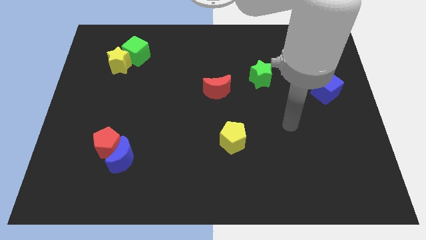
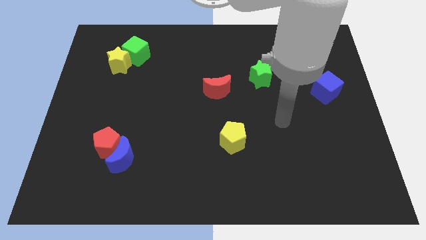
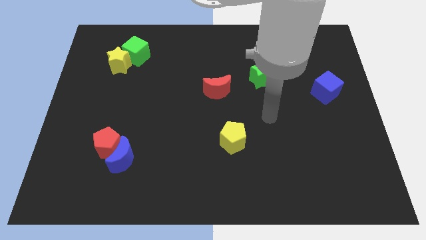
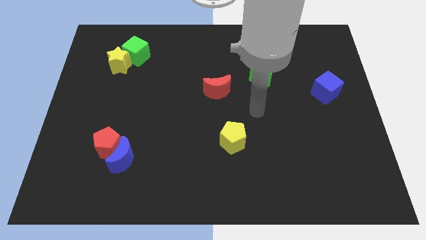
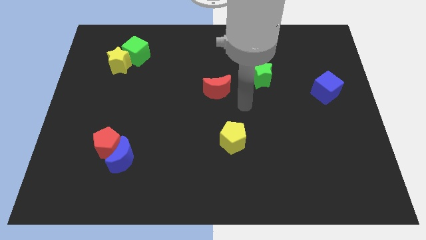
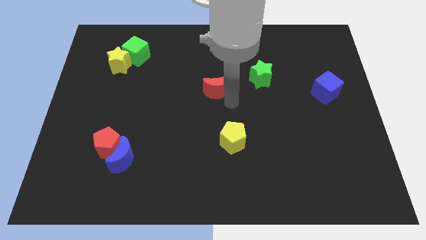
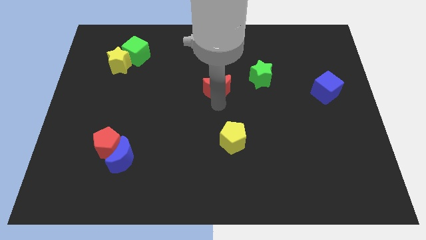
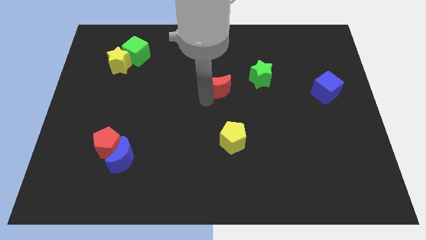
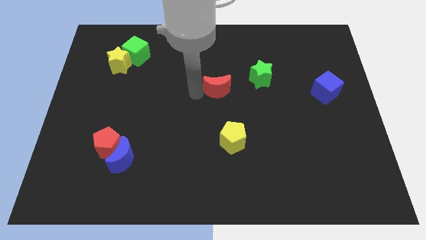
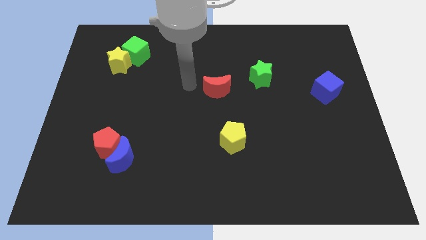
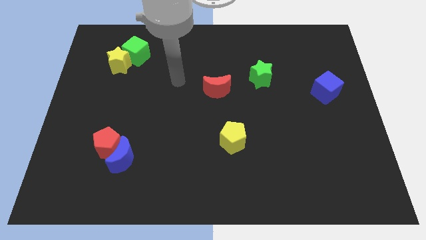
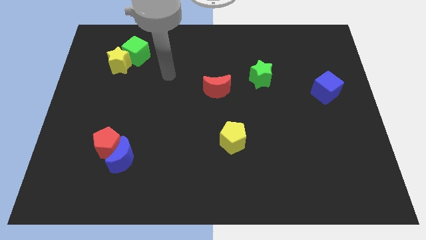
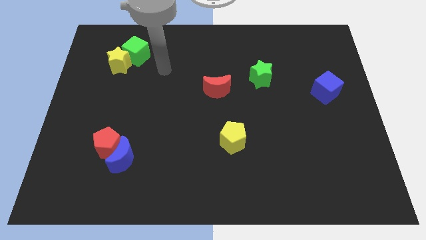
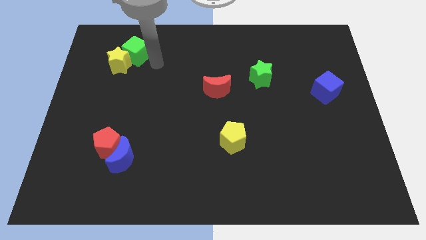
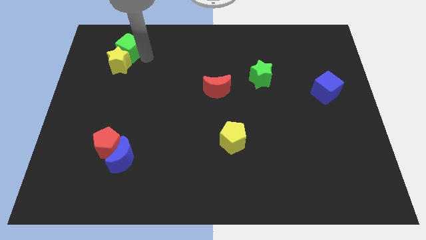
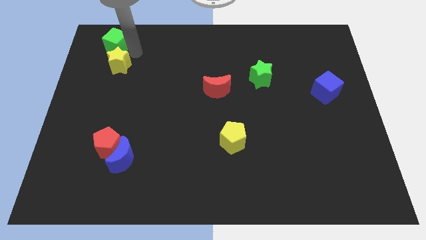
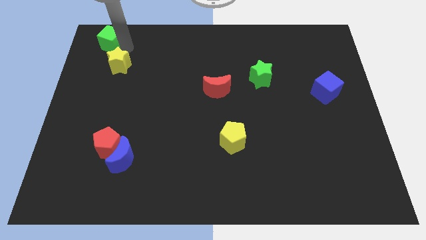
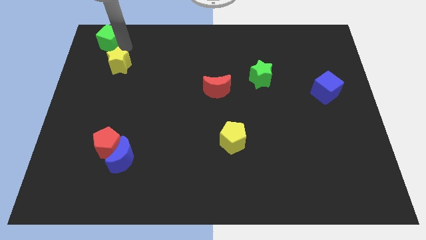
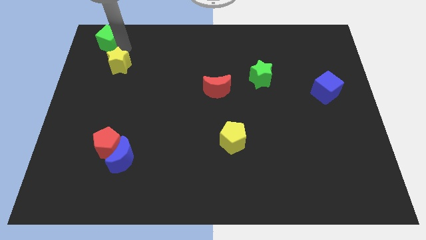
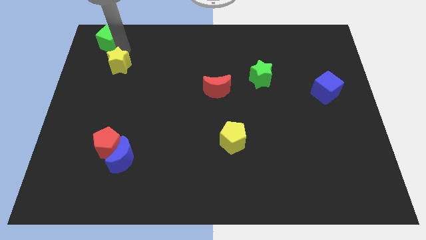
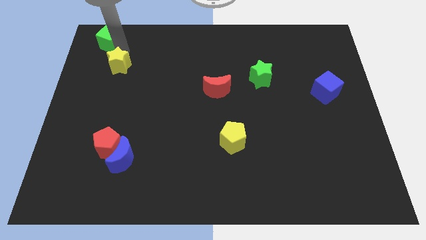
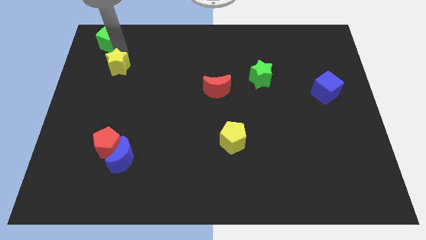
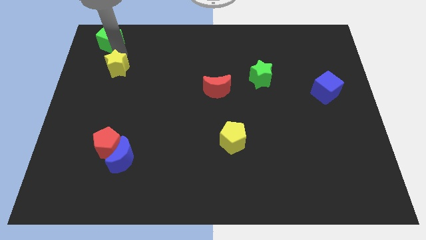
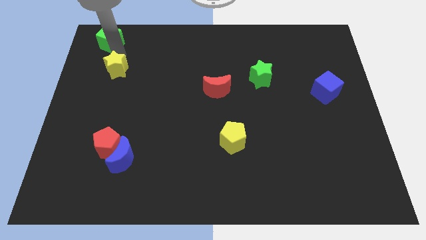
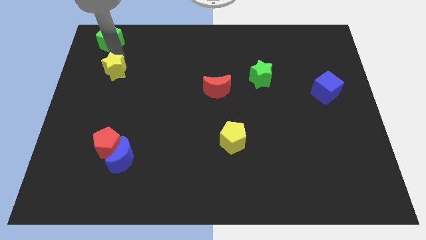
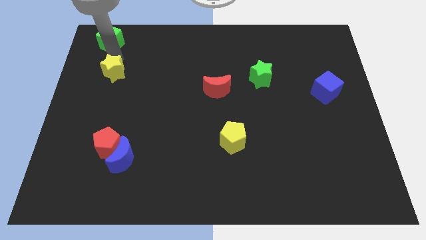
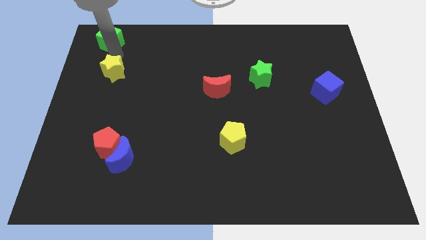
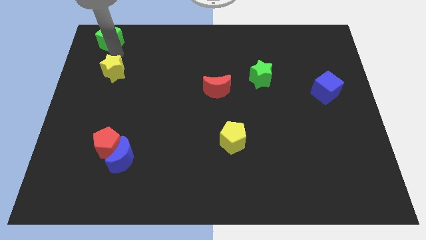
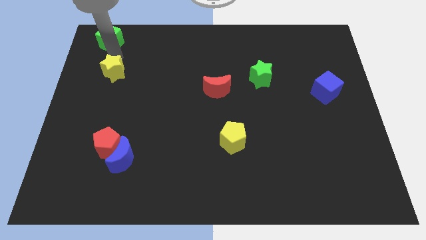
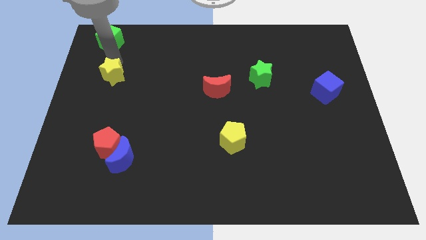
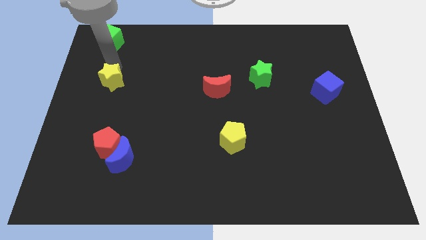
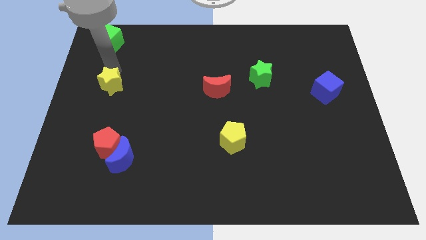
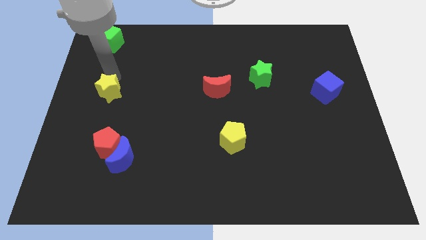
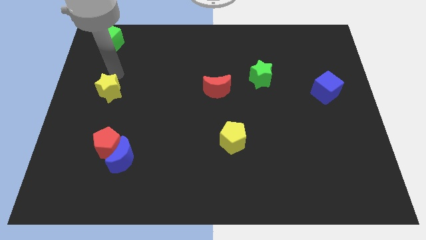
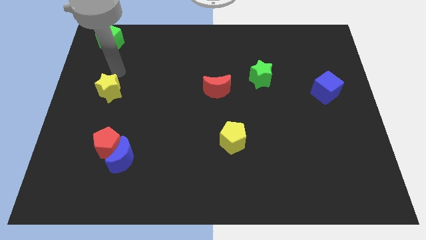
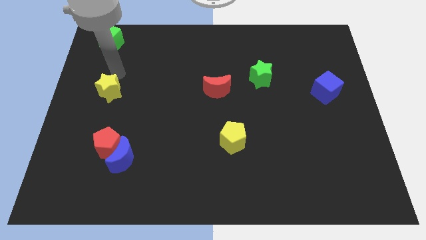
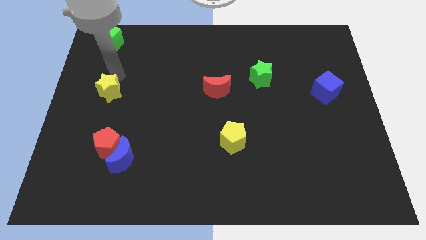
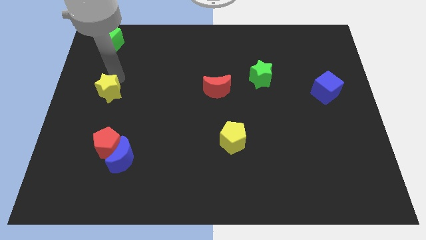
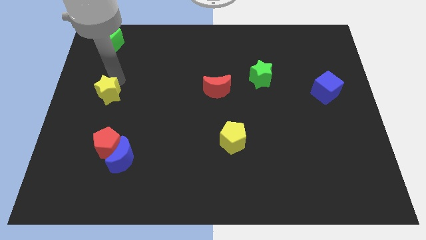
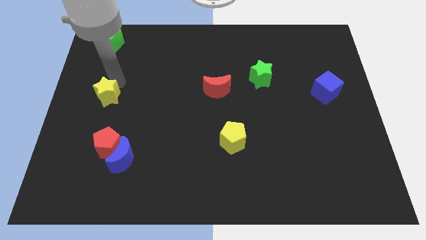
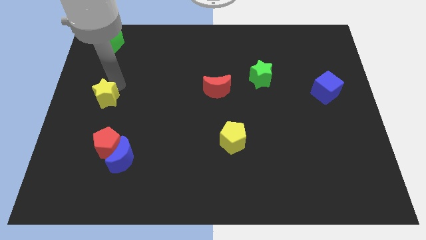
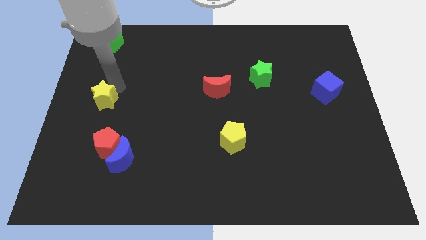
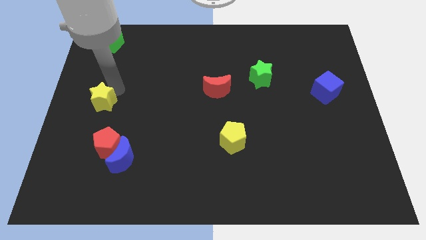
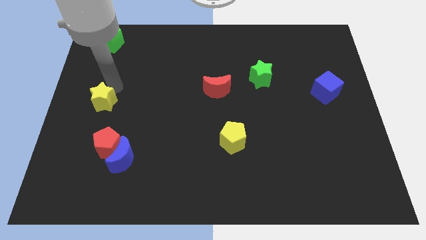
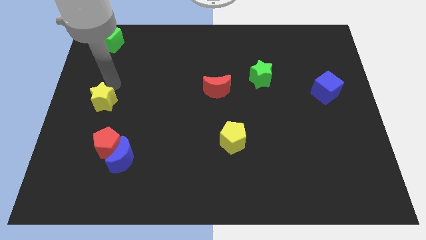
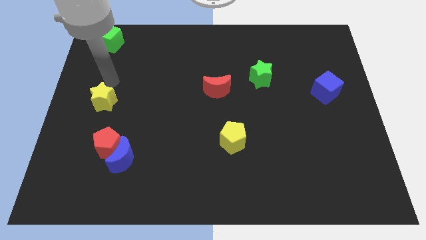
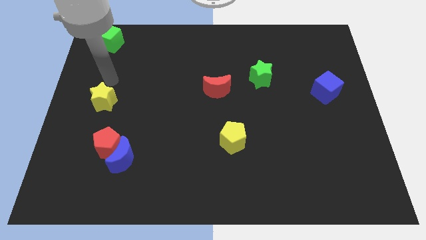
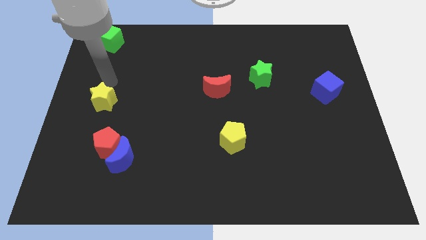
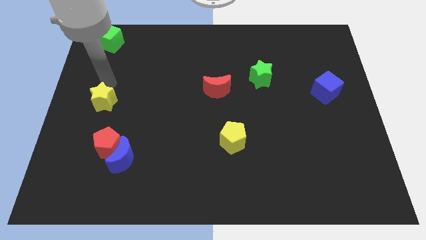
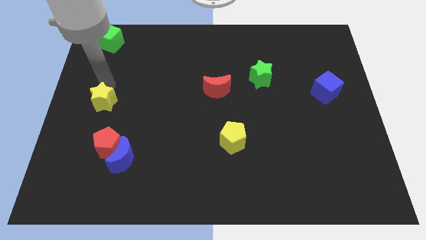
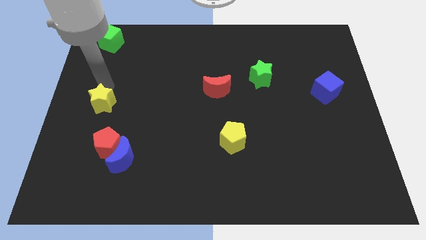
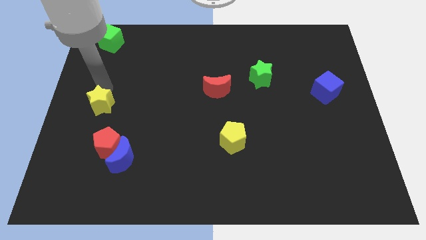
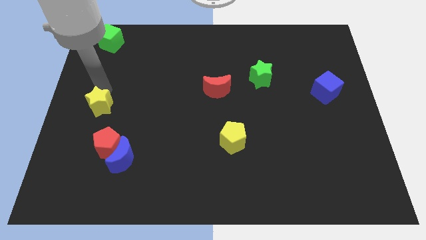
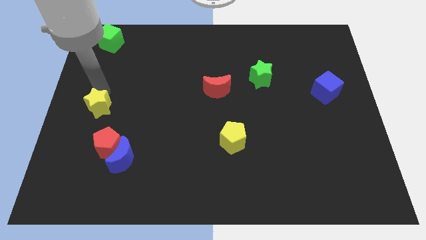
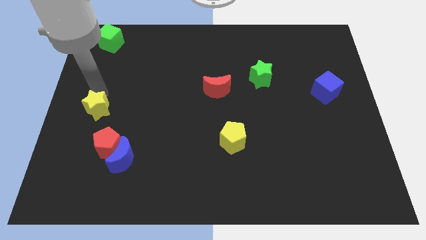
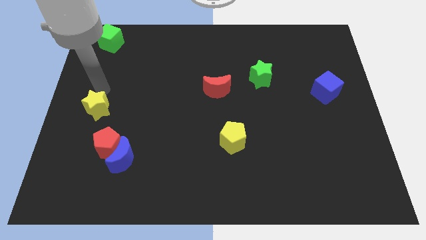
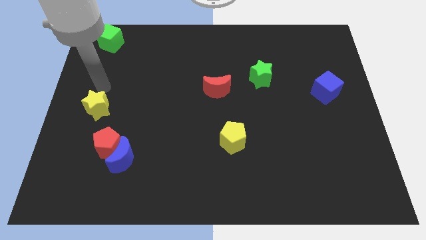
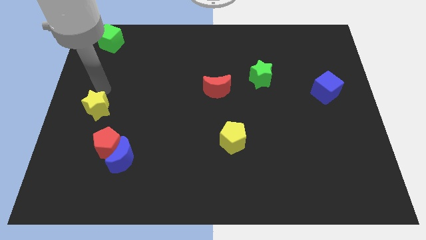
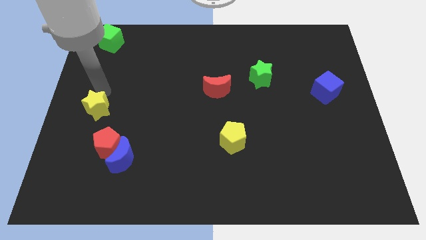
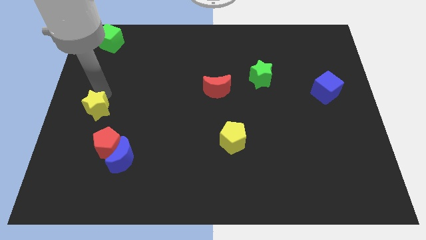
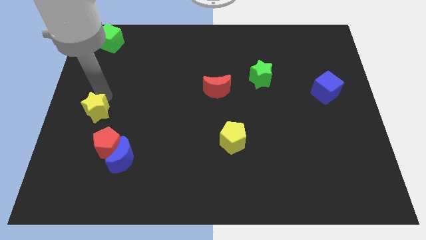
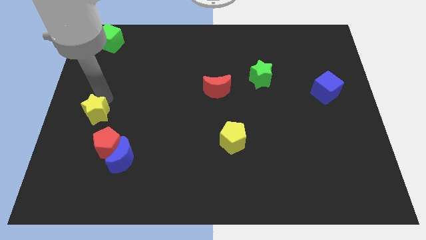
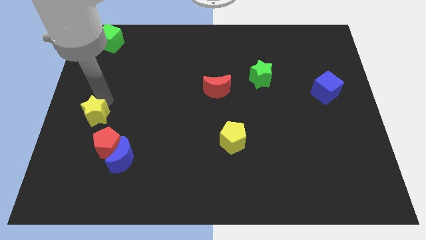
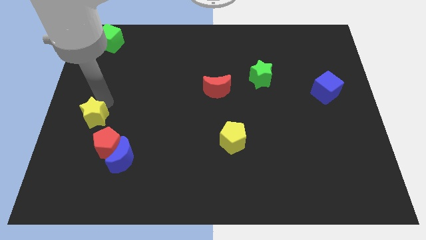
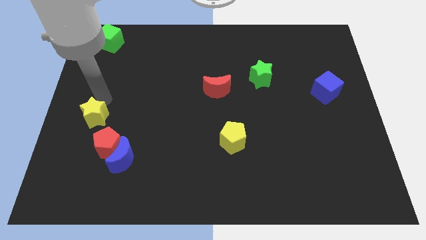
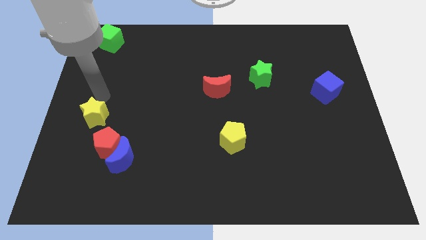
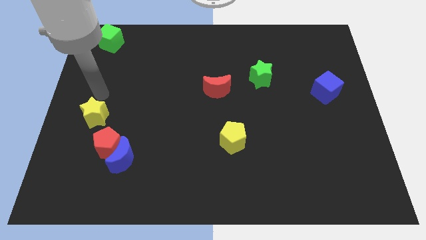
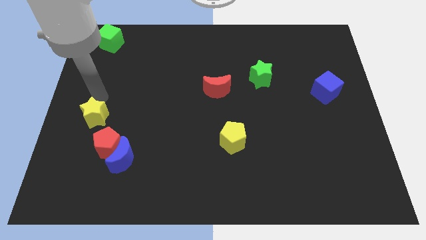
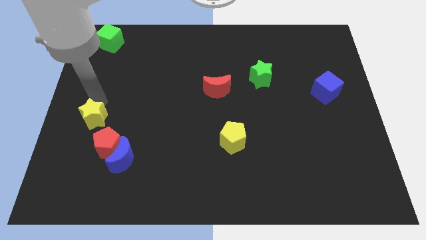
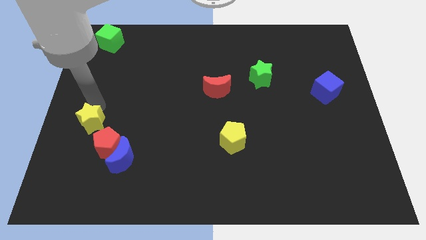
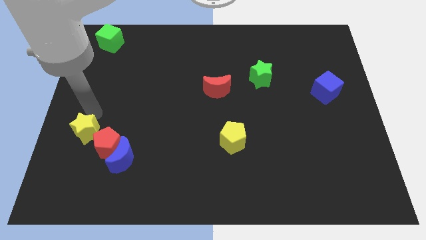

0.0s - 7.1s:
slide the yellow star down

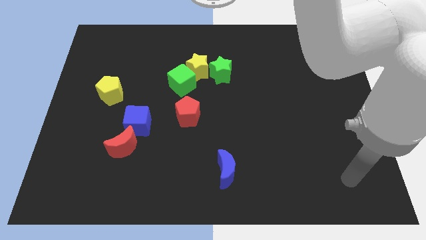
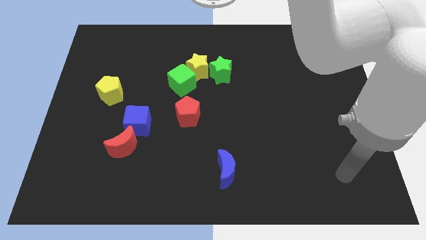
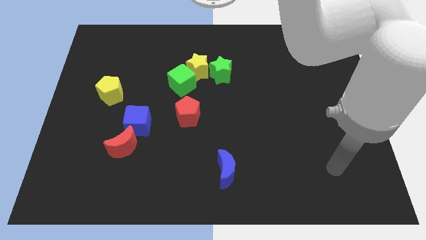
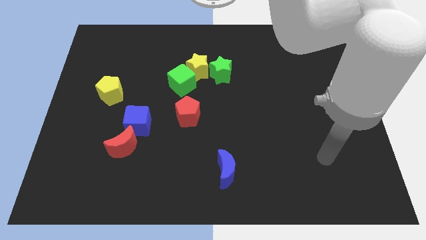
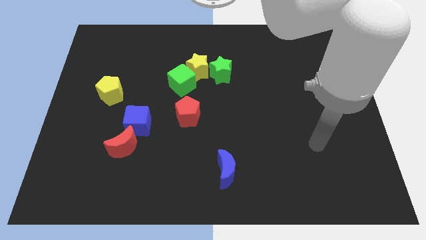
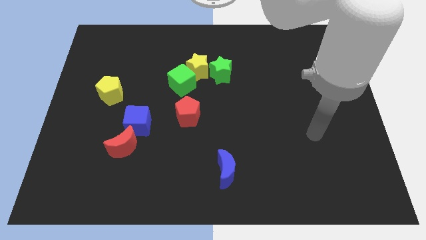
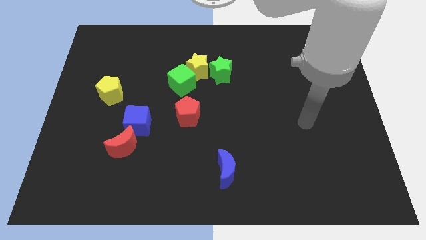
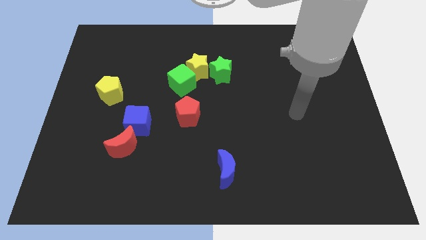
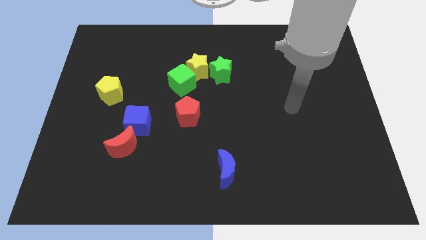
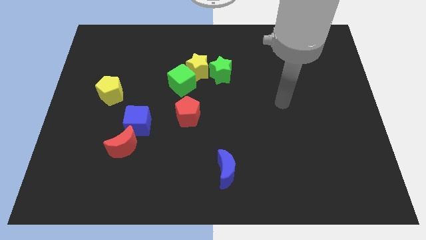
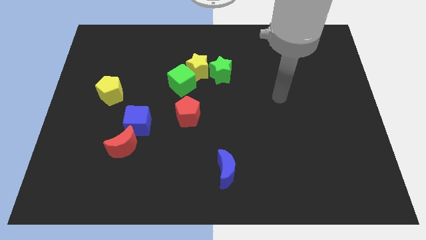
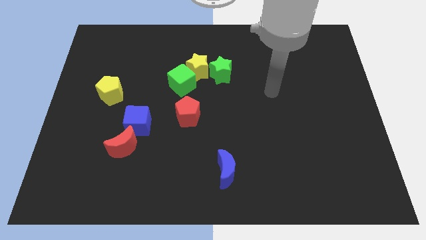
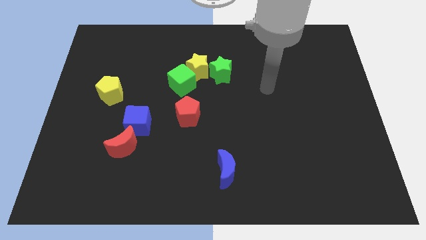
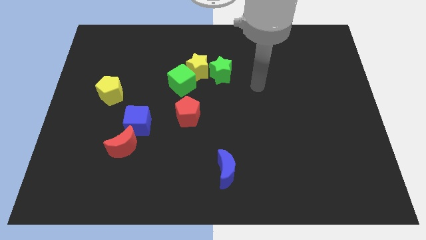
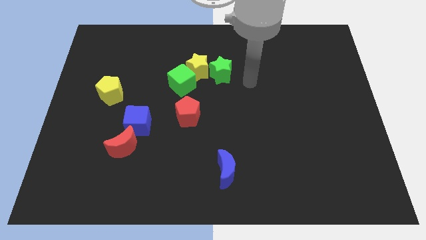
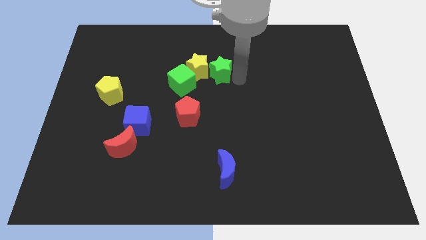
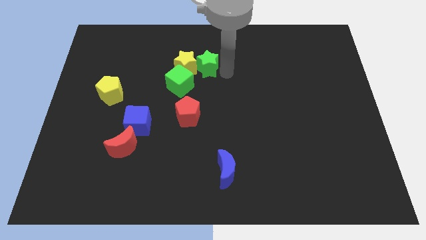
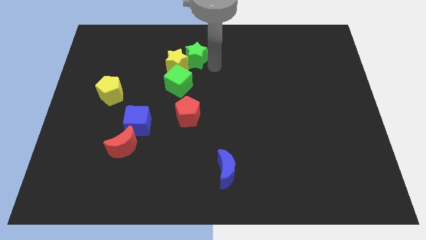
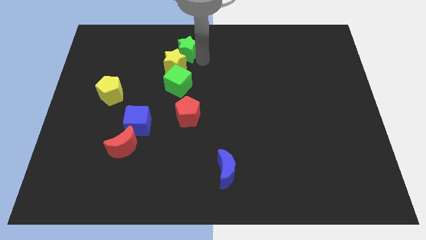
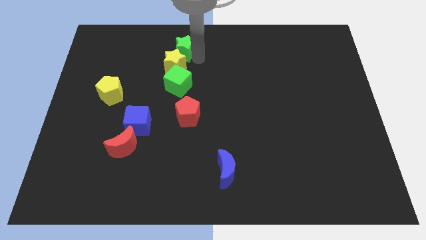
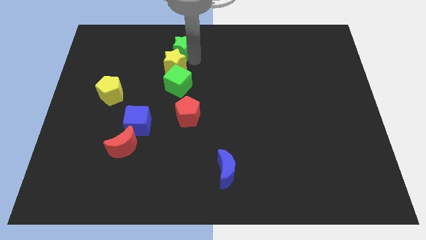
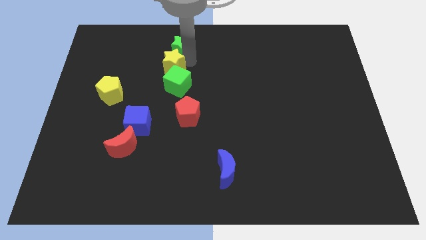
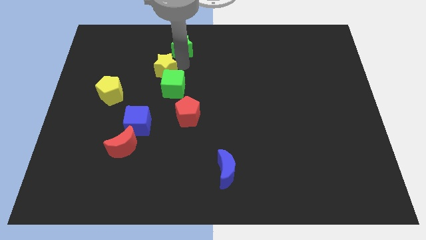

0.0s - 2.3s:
move the yellow star a little bit to the left
